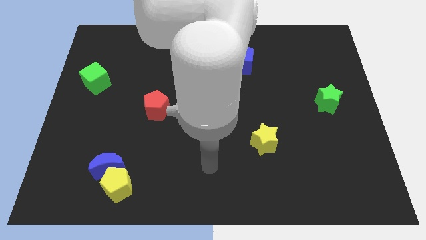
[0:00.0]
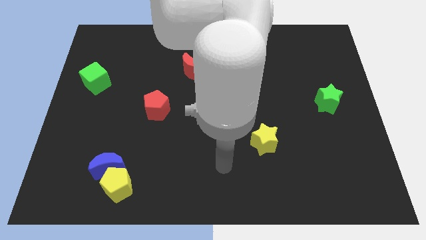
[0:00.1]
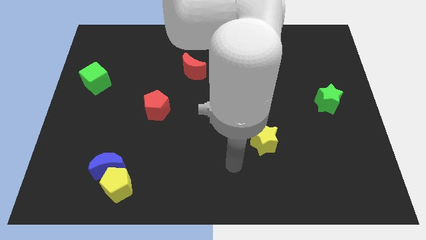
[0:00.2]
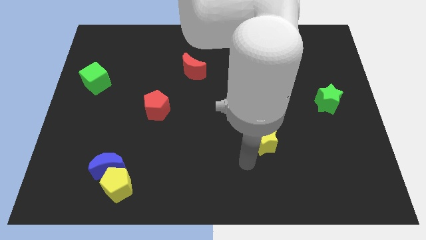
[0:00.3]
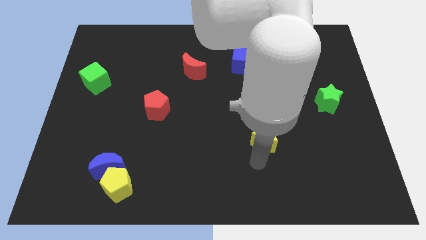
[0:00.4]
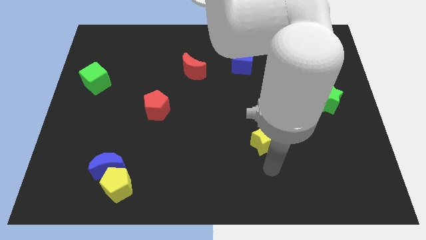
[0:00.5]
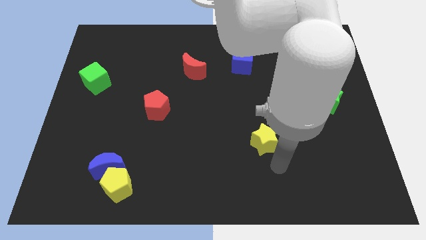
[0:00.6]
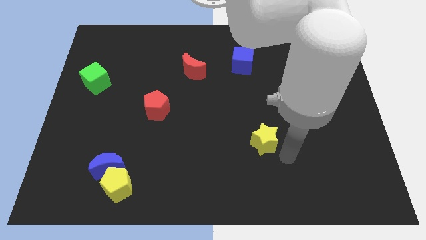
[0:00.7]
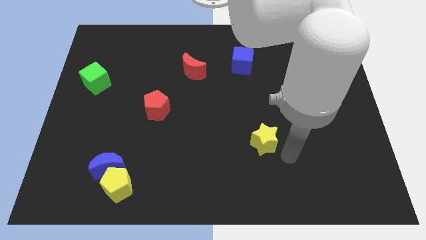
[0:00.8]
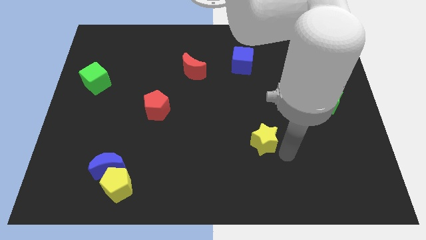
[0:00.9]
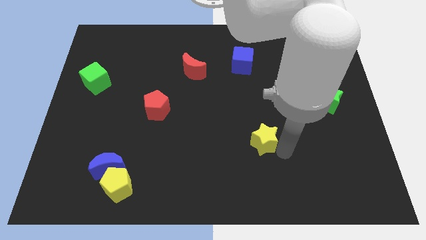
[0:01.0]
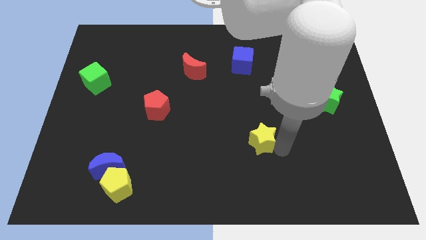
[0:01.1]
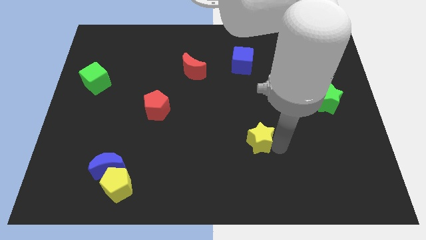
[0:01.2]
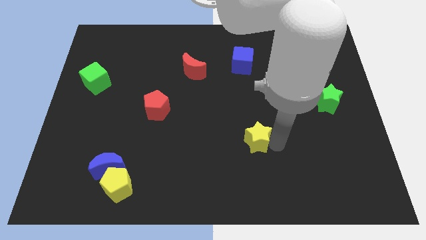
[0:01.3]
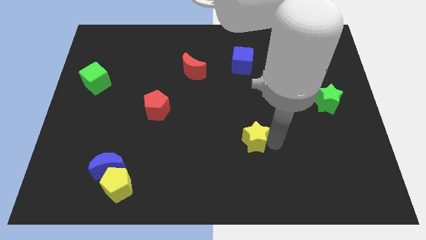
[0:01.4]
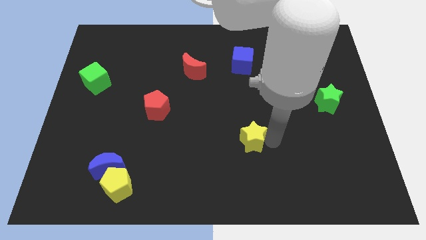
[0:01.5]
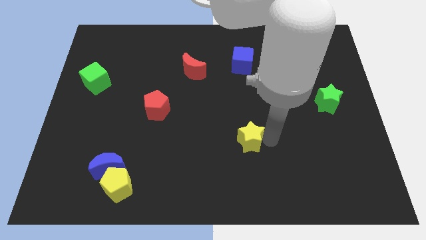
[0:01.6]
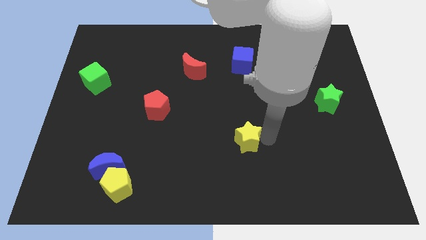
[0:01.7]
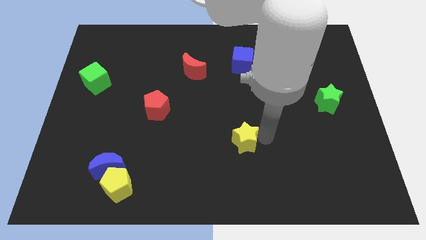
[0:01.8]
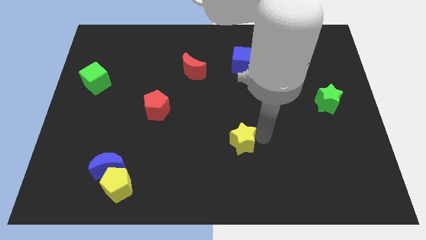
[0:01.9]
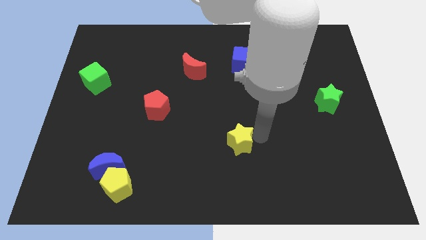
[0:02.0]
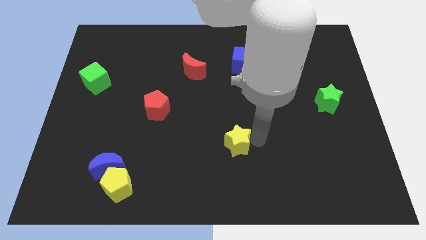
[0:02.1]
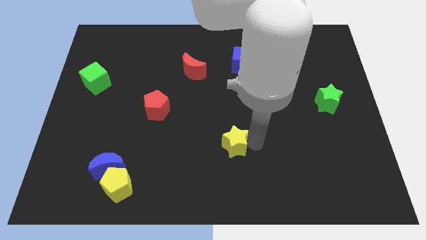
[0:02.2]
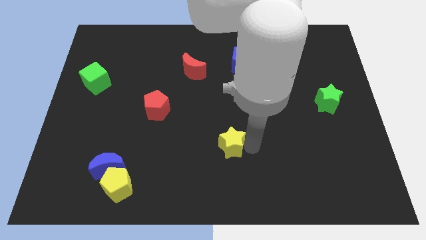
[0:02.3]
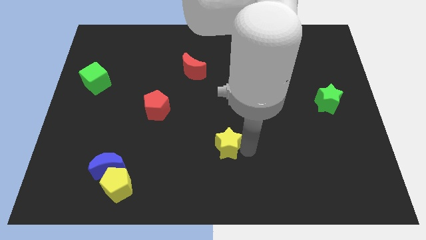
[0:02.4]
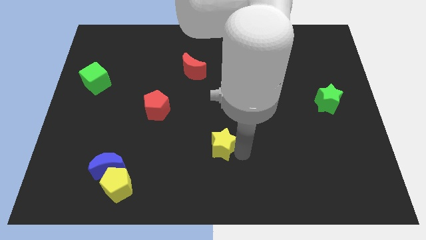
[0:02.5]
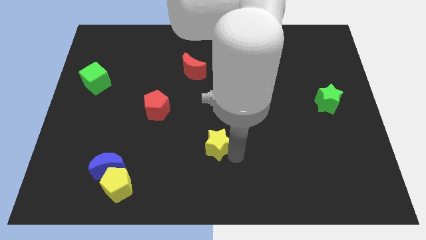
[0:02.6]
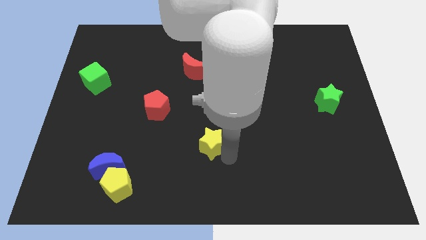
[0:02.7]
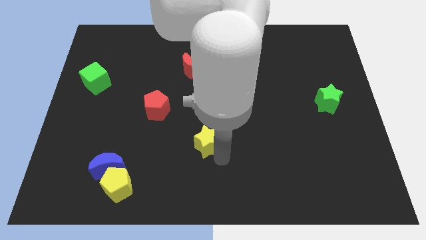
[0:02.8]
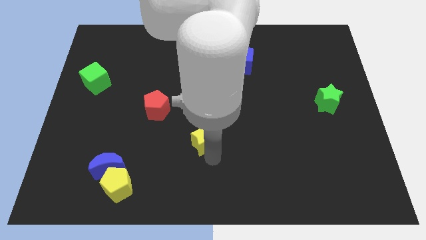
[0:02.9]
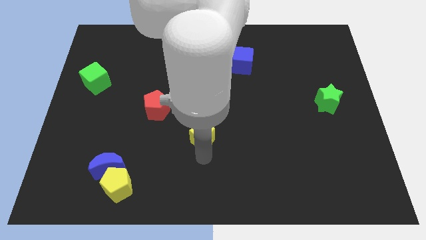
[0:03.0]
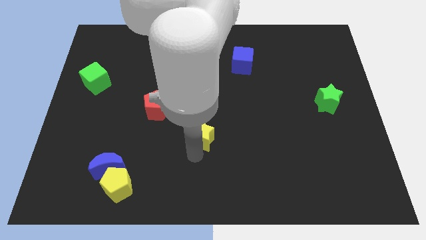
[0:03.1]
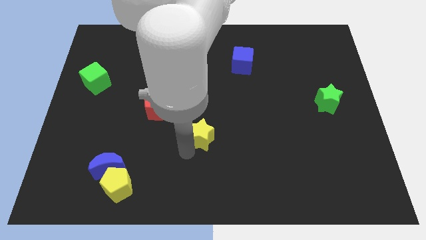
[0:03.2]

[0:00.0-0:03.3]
move the yellow star somewhat diagonally upwards and left

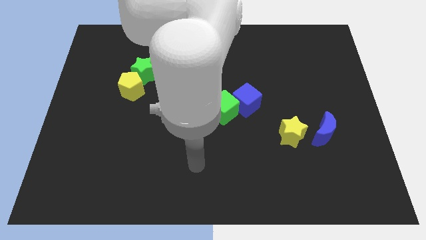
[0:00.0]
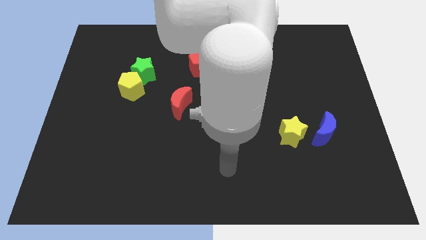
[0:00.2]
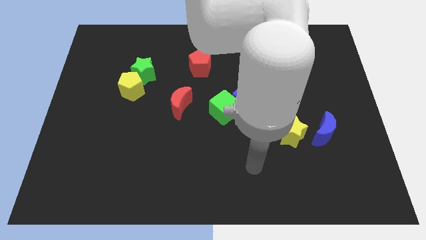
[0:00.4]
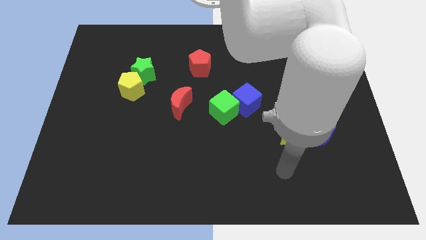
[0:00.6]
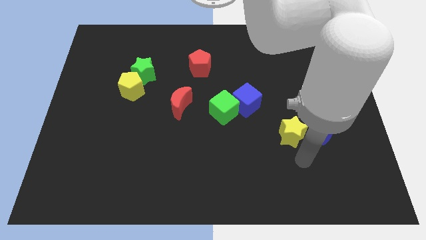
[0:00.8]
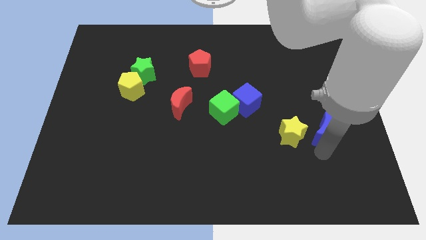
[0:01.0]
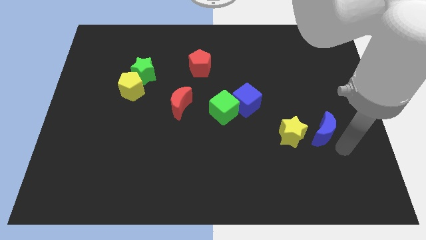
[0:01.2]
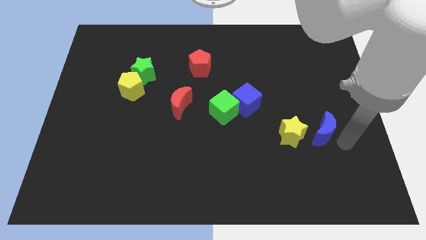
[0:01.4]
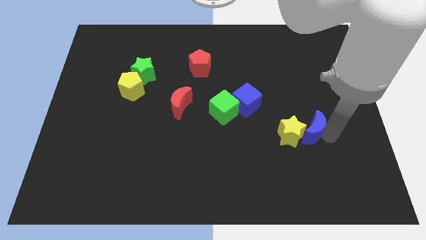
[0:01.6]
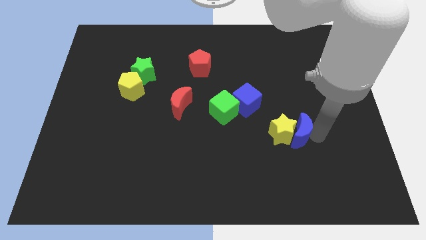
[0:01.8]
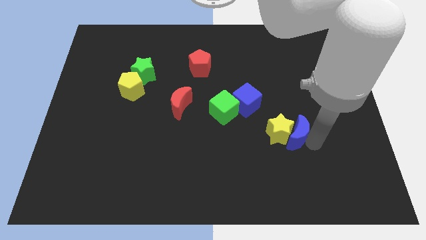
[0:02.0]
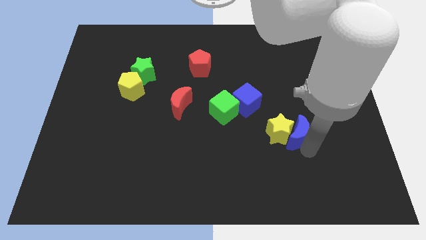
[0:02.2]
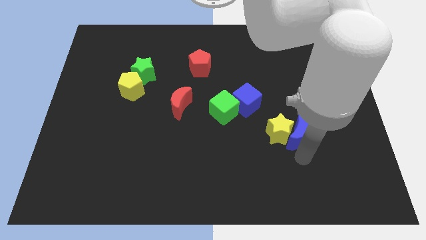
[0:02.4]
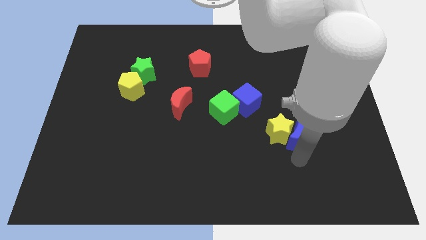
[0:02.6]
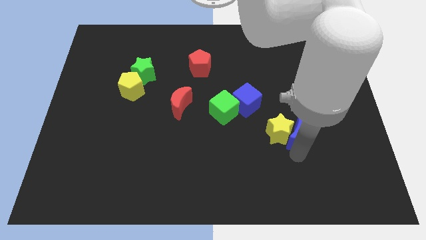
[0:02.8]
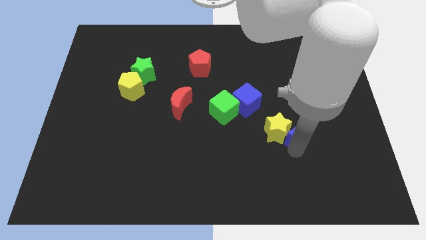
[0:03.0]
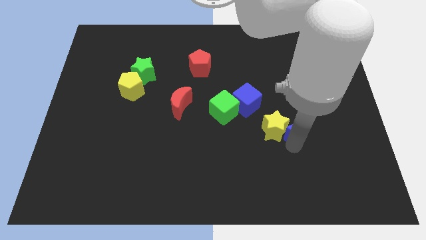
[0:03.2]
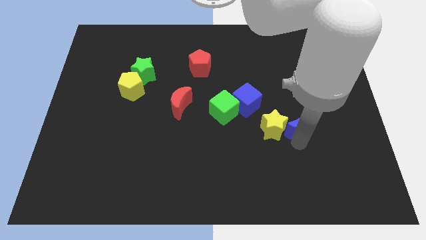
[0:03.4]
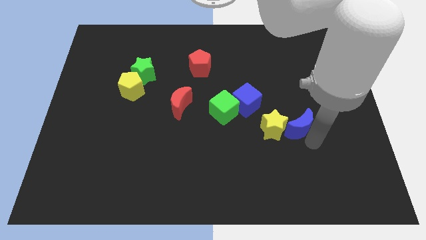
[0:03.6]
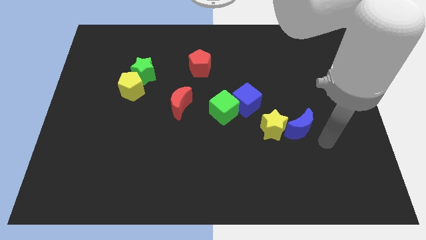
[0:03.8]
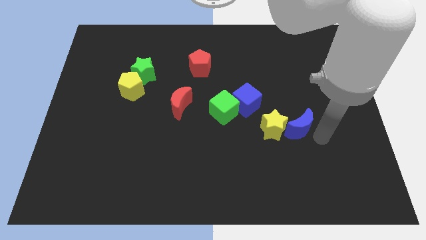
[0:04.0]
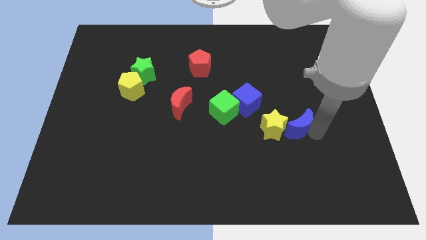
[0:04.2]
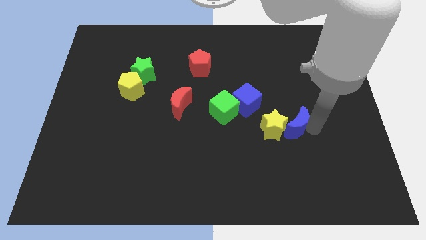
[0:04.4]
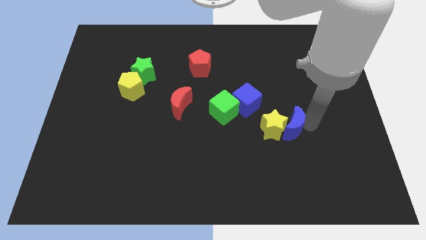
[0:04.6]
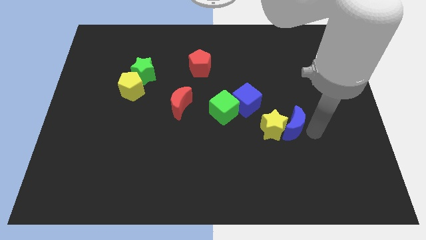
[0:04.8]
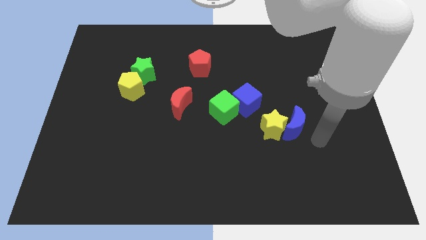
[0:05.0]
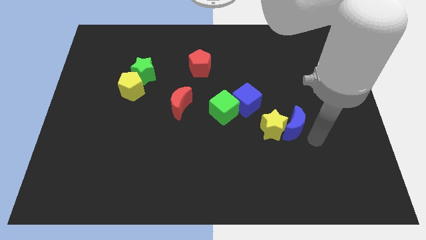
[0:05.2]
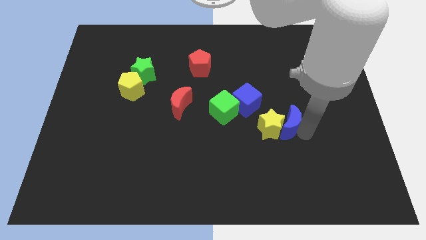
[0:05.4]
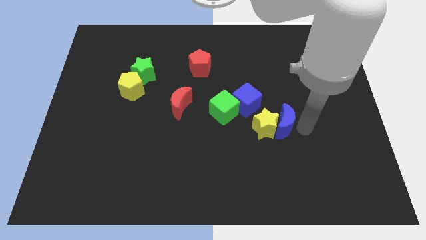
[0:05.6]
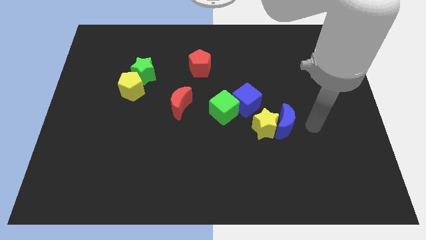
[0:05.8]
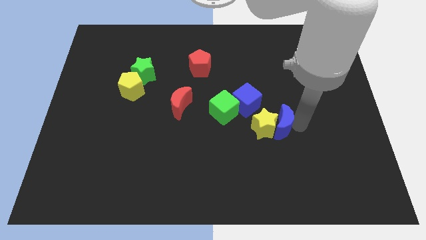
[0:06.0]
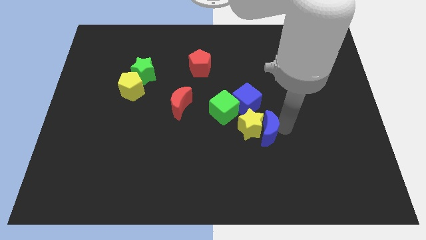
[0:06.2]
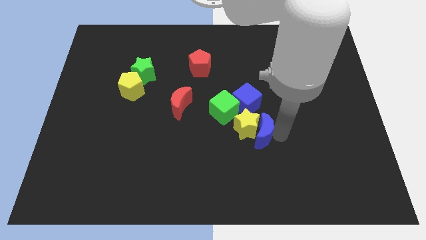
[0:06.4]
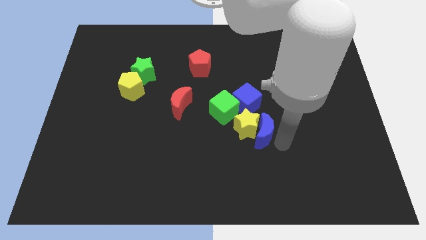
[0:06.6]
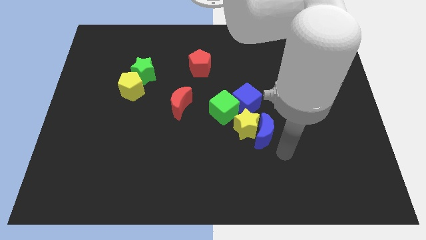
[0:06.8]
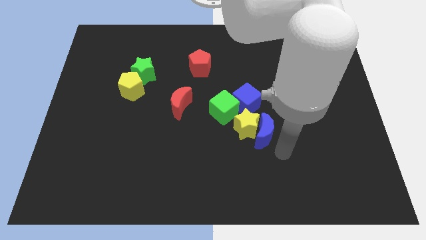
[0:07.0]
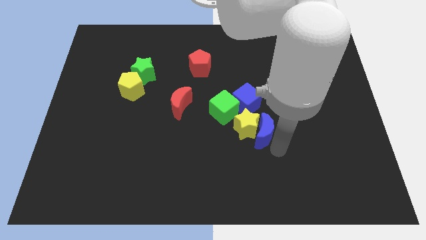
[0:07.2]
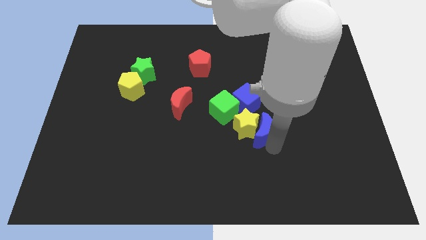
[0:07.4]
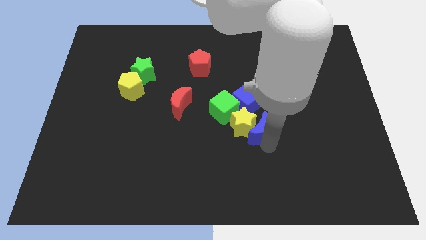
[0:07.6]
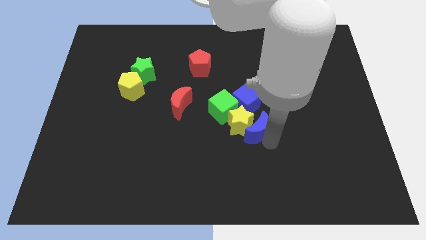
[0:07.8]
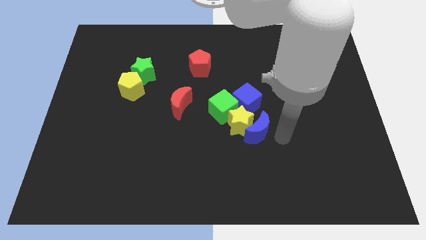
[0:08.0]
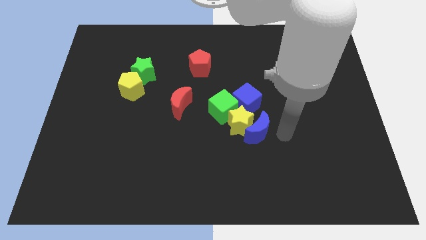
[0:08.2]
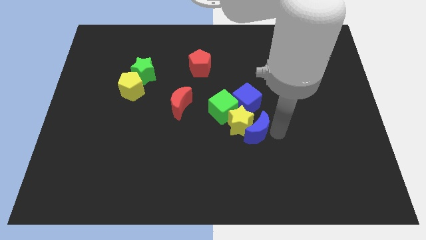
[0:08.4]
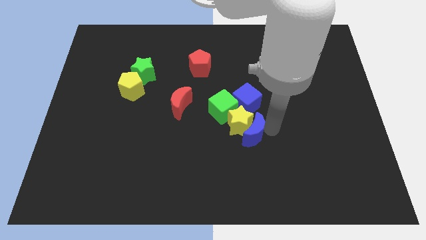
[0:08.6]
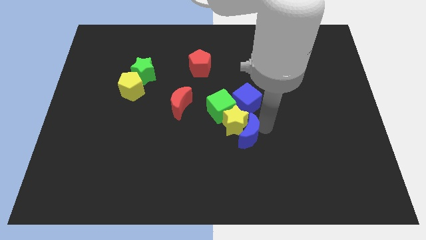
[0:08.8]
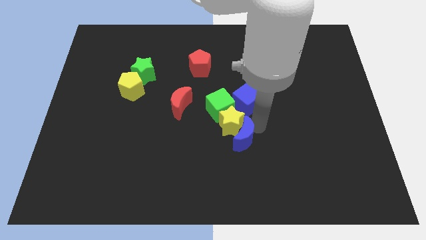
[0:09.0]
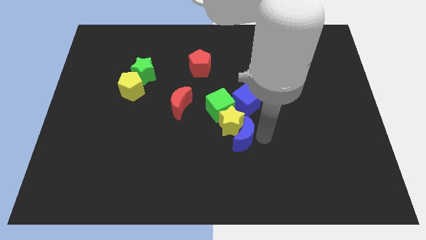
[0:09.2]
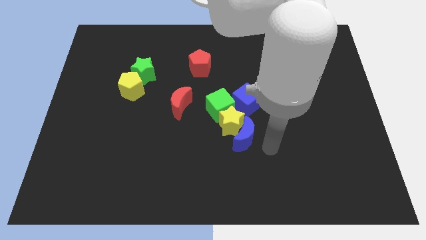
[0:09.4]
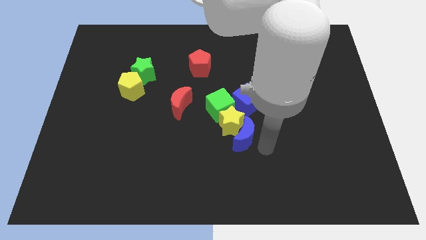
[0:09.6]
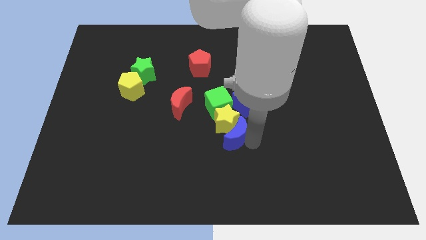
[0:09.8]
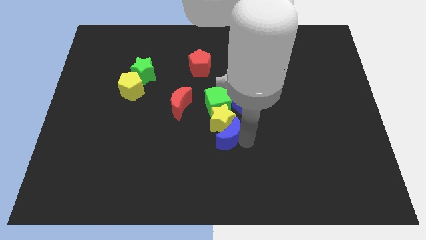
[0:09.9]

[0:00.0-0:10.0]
push the blue moon to the left
